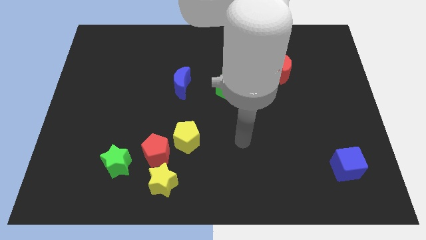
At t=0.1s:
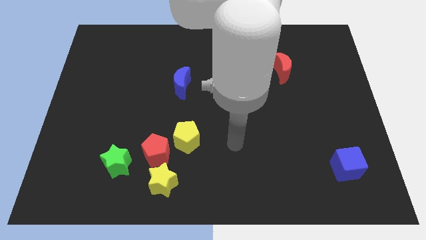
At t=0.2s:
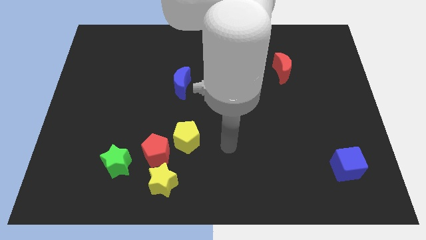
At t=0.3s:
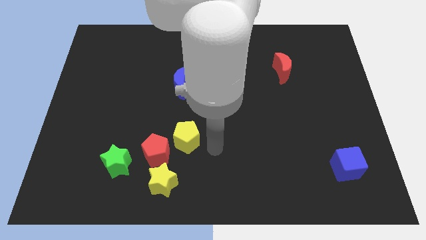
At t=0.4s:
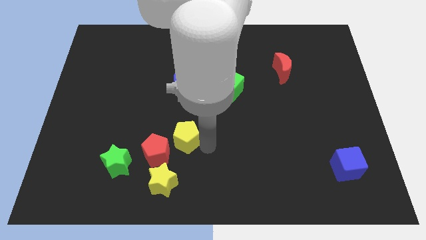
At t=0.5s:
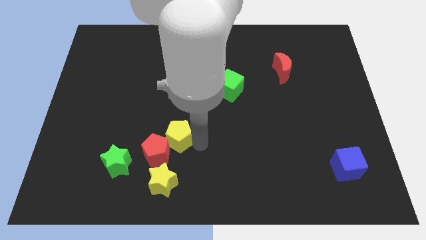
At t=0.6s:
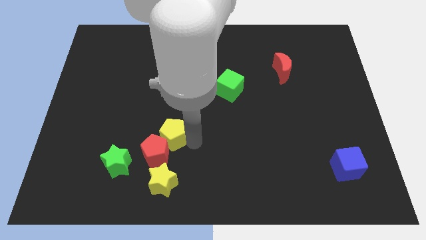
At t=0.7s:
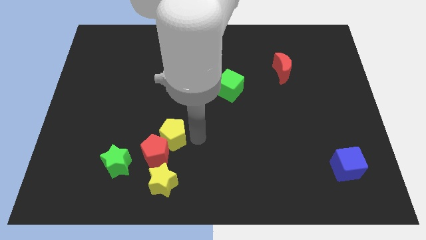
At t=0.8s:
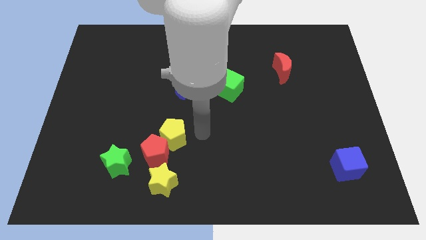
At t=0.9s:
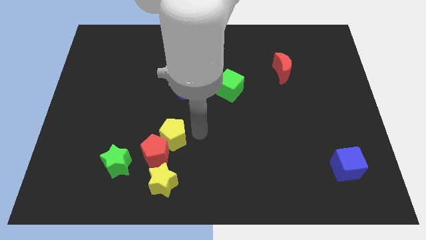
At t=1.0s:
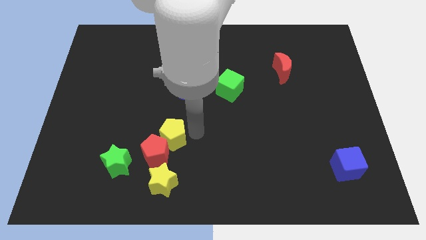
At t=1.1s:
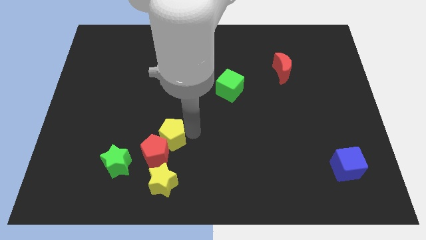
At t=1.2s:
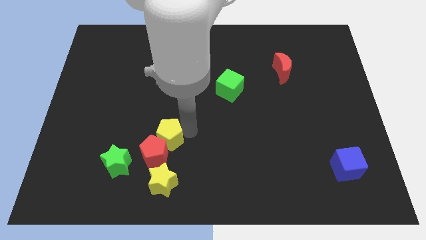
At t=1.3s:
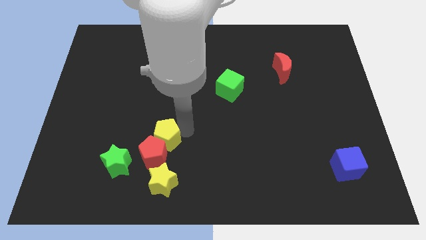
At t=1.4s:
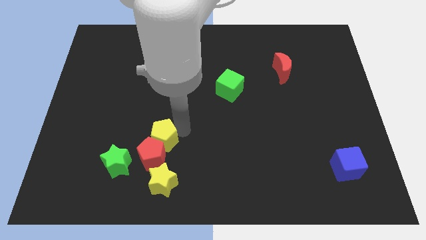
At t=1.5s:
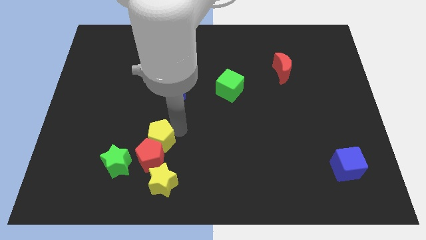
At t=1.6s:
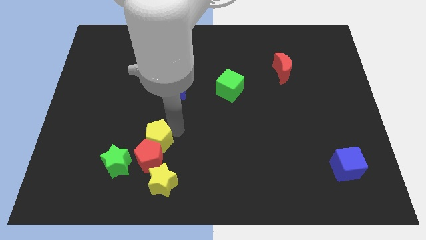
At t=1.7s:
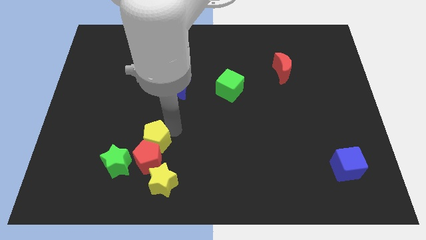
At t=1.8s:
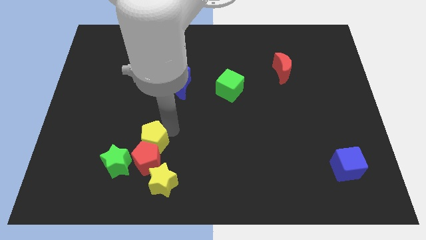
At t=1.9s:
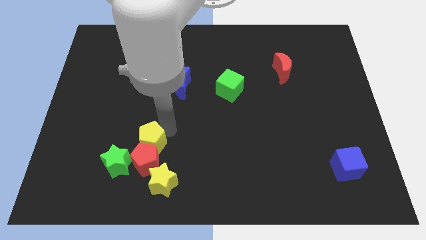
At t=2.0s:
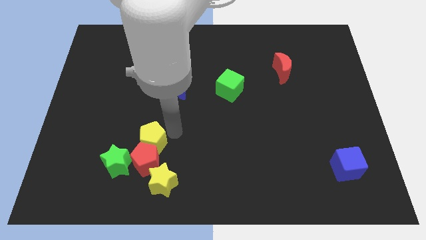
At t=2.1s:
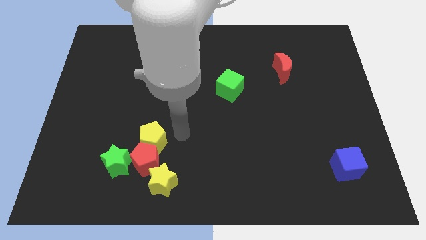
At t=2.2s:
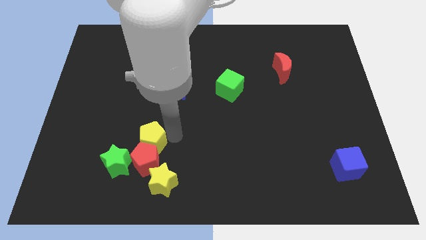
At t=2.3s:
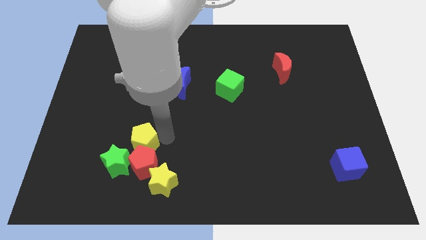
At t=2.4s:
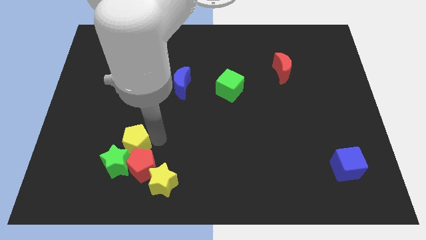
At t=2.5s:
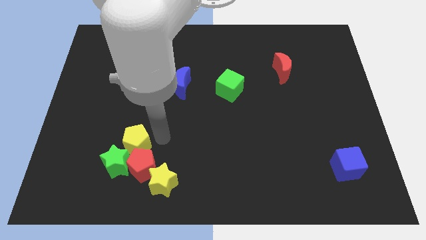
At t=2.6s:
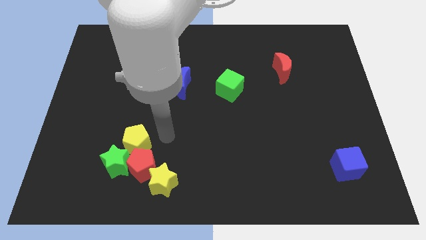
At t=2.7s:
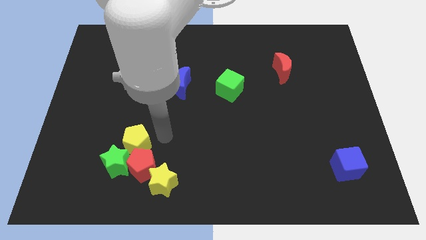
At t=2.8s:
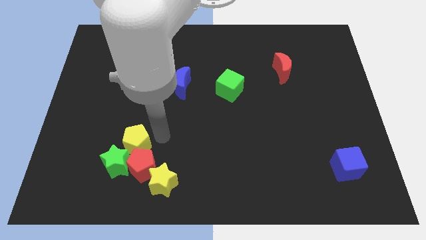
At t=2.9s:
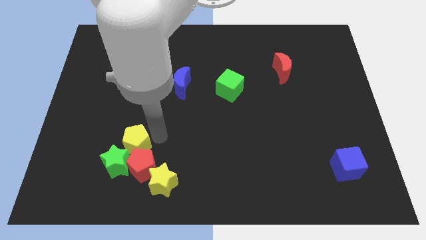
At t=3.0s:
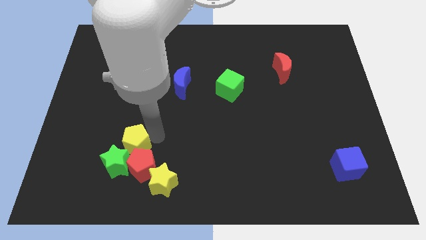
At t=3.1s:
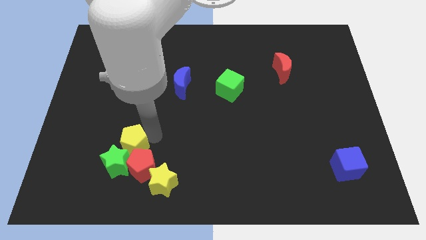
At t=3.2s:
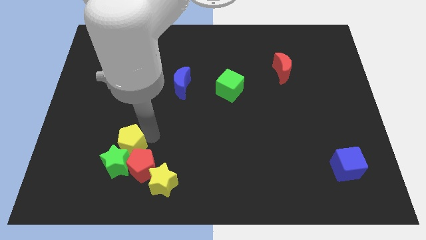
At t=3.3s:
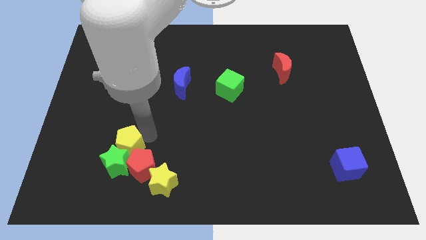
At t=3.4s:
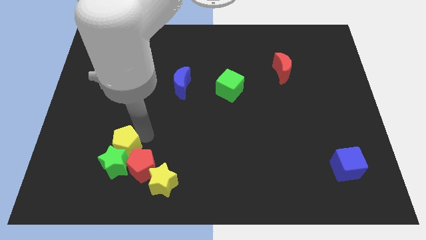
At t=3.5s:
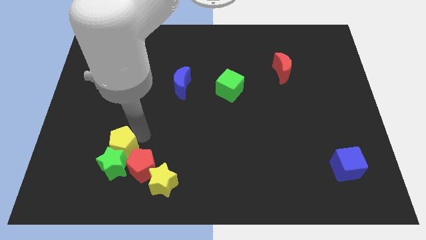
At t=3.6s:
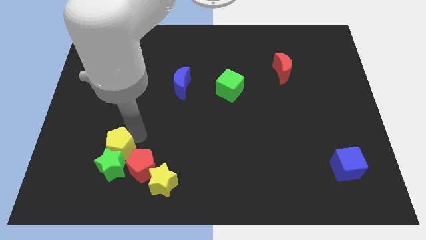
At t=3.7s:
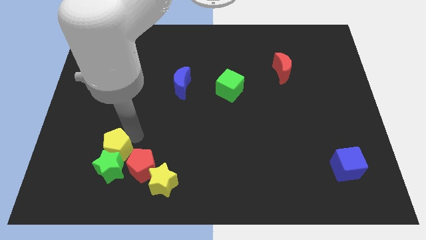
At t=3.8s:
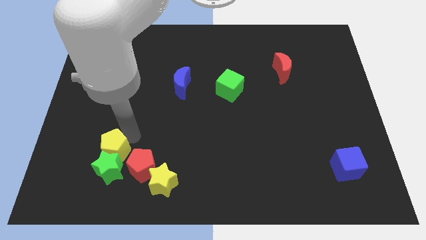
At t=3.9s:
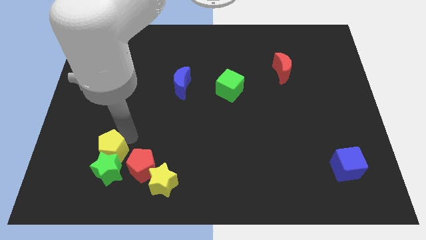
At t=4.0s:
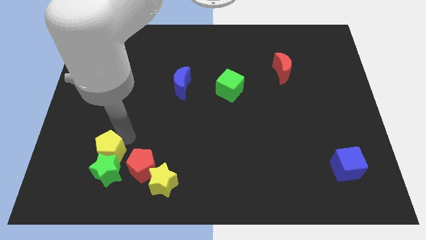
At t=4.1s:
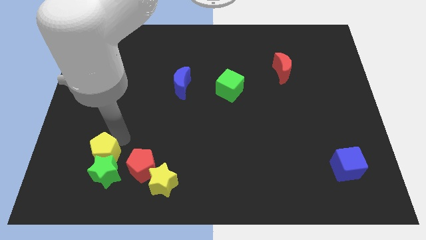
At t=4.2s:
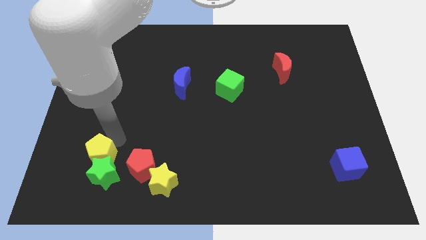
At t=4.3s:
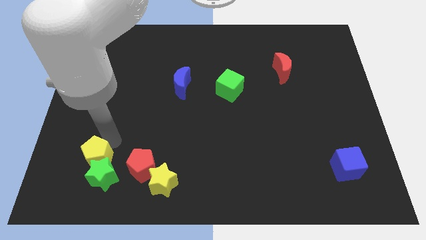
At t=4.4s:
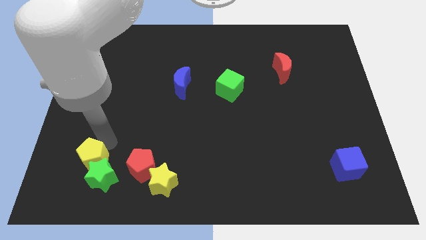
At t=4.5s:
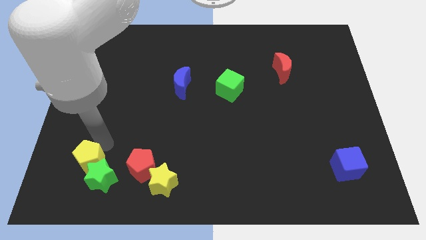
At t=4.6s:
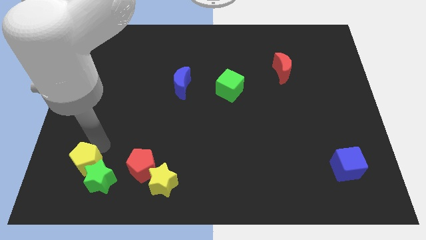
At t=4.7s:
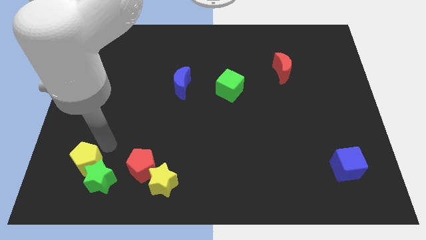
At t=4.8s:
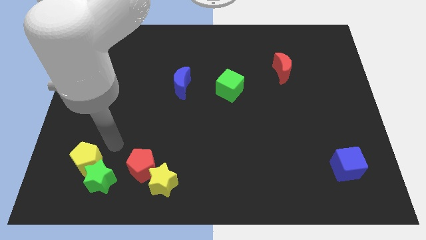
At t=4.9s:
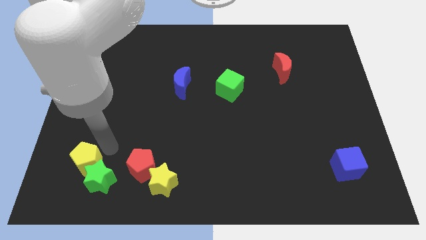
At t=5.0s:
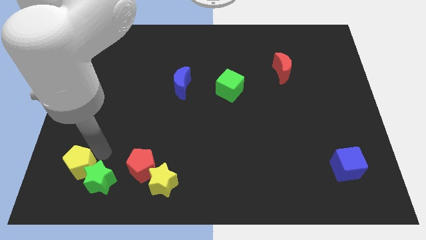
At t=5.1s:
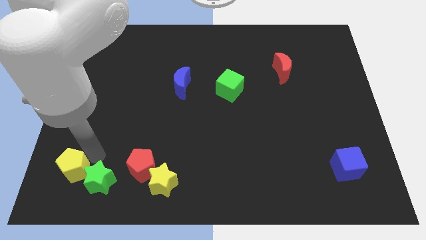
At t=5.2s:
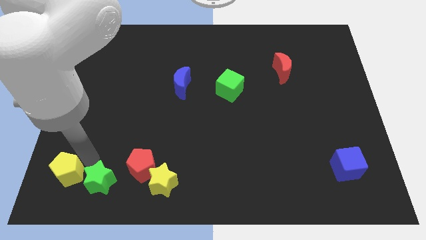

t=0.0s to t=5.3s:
slide the yellow pentagon to the bottom left

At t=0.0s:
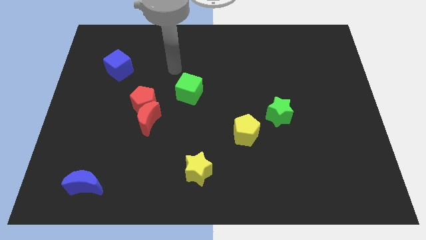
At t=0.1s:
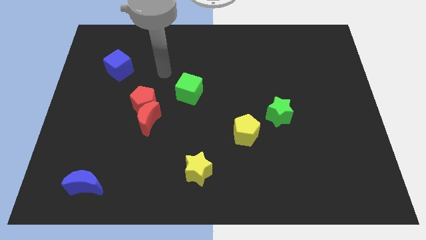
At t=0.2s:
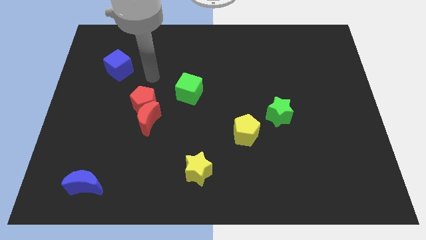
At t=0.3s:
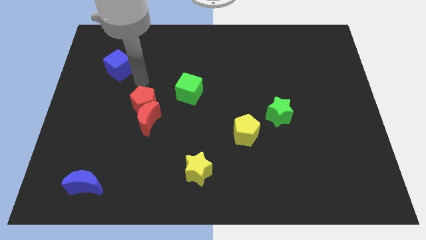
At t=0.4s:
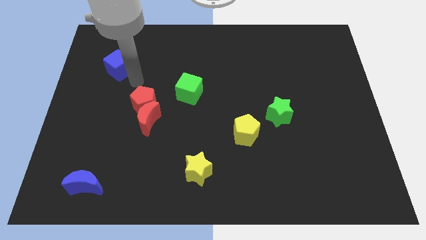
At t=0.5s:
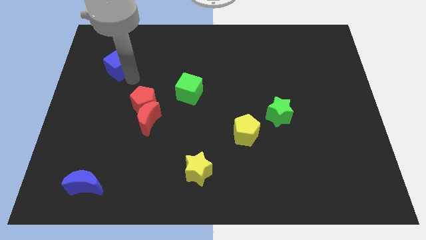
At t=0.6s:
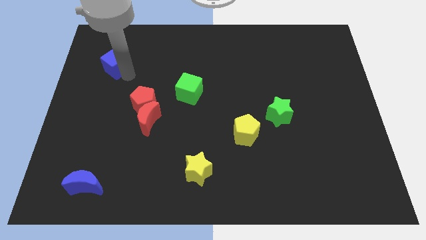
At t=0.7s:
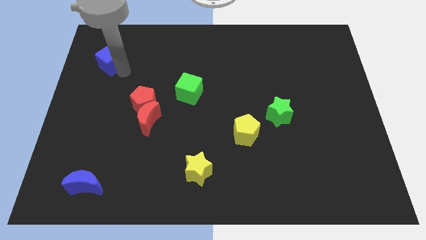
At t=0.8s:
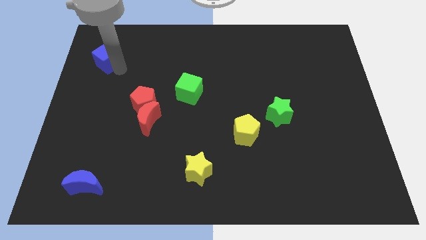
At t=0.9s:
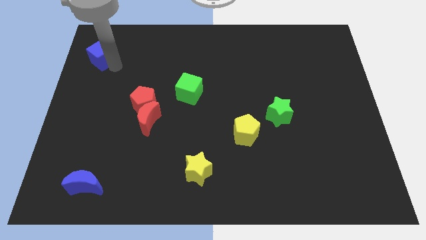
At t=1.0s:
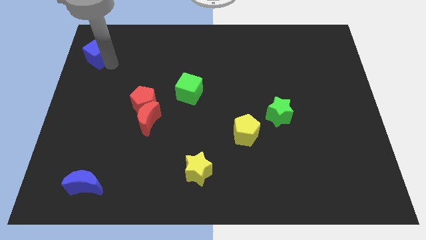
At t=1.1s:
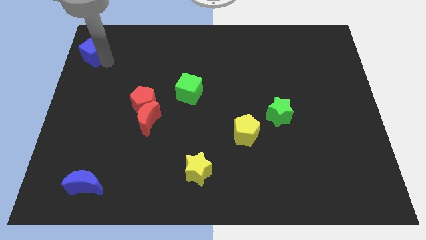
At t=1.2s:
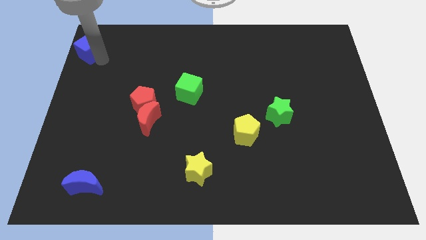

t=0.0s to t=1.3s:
put the blue cube to the top left of the board
